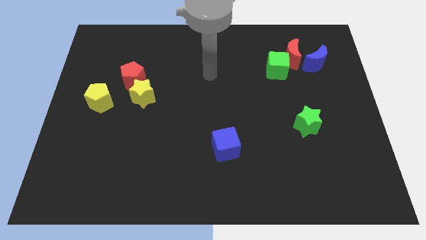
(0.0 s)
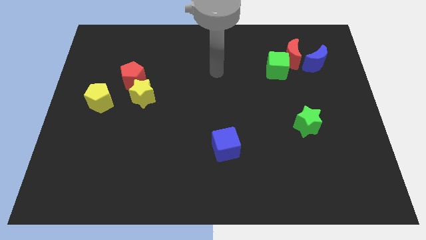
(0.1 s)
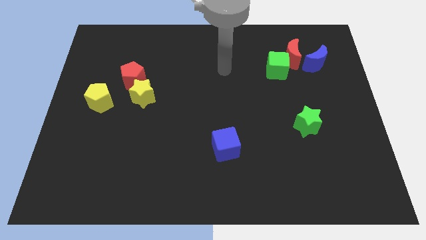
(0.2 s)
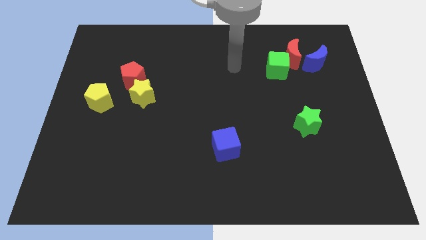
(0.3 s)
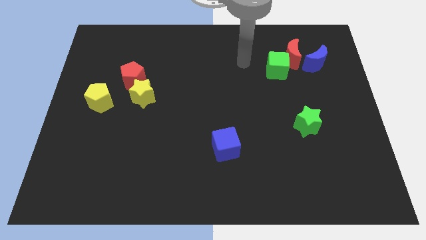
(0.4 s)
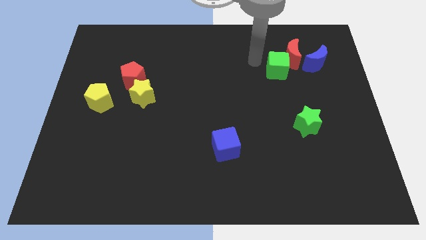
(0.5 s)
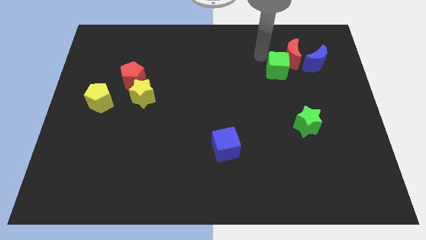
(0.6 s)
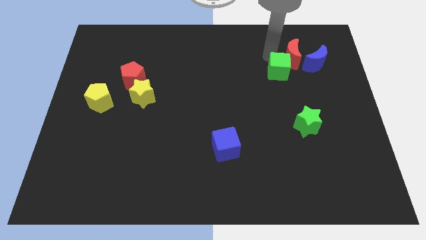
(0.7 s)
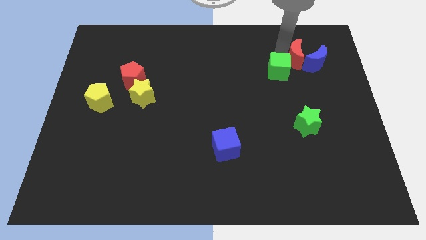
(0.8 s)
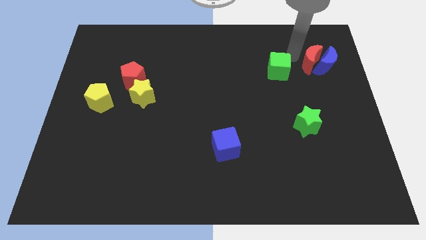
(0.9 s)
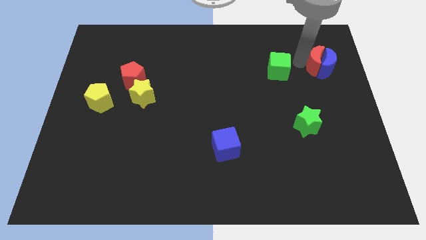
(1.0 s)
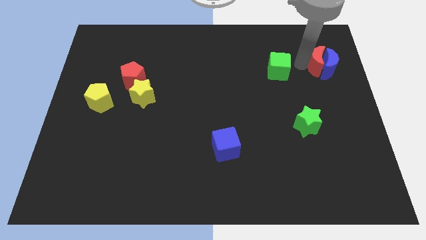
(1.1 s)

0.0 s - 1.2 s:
separate the green cube from the red moon

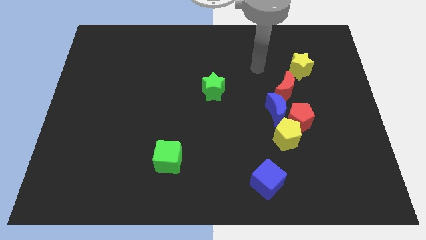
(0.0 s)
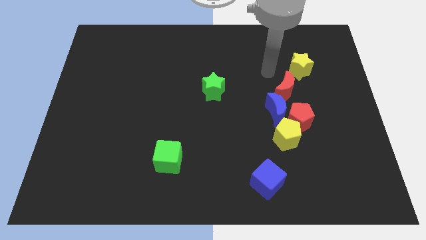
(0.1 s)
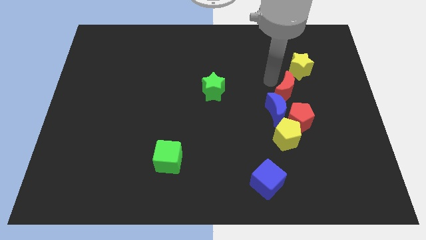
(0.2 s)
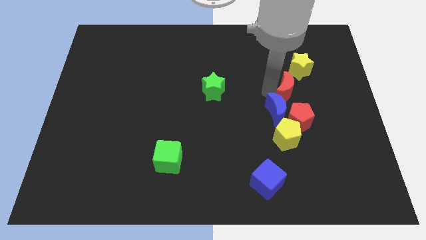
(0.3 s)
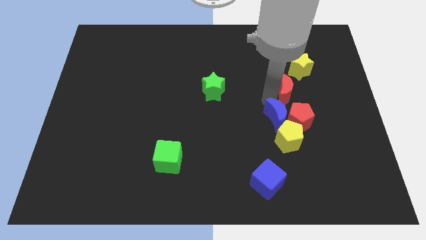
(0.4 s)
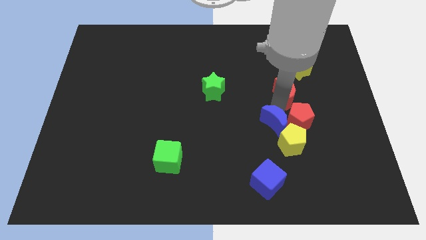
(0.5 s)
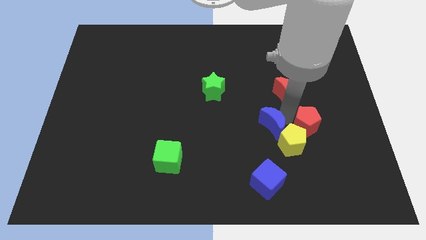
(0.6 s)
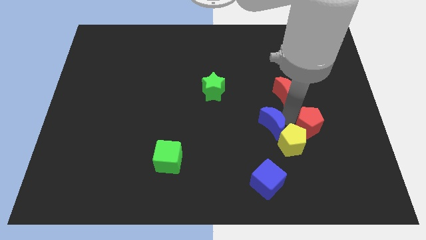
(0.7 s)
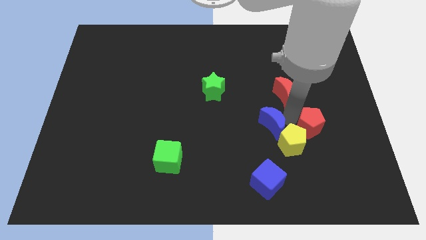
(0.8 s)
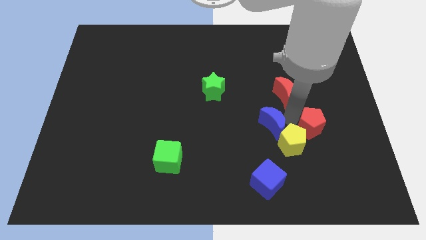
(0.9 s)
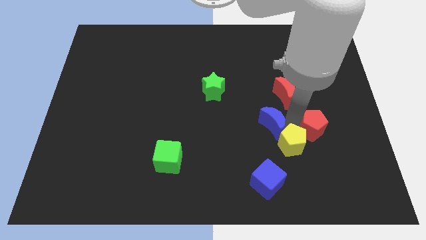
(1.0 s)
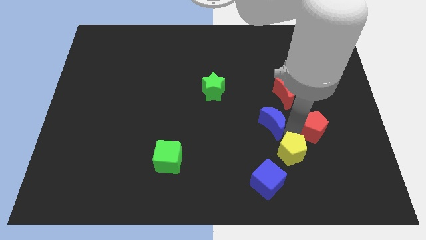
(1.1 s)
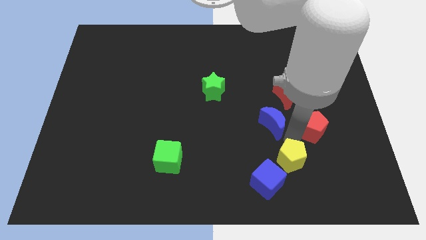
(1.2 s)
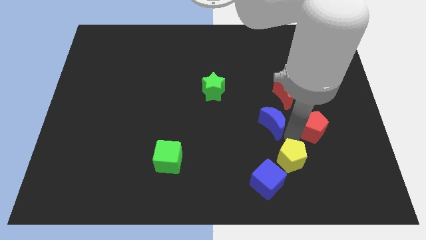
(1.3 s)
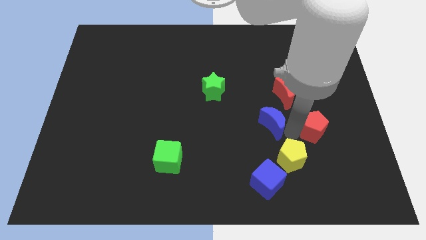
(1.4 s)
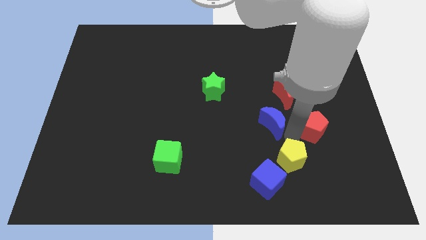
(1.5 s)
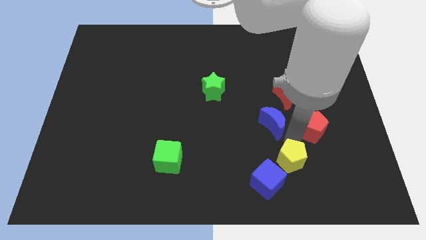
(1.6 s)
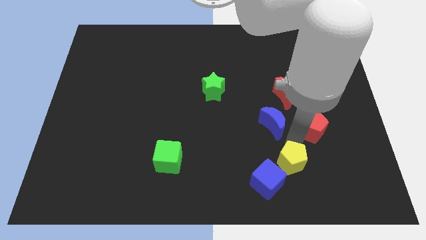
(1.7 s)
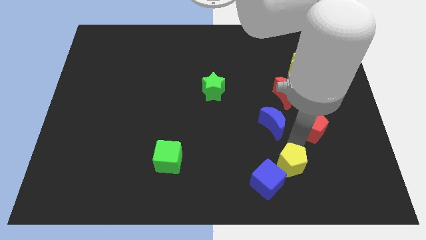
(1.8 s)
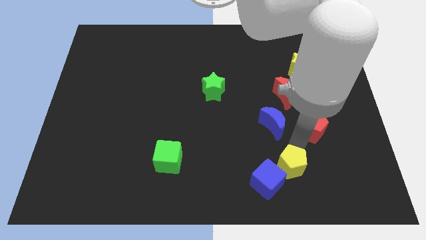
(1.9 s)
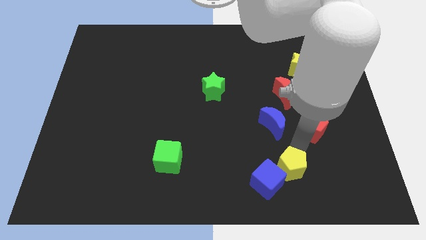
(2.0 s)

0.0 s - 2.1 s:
pull the yellow pentagon apart from the red pentagon and blue moon

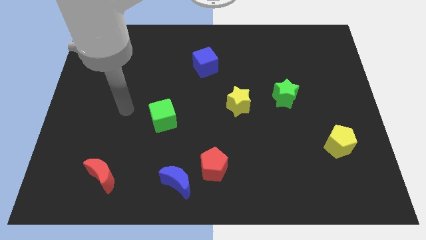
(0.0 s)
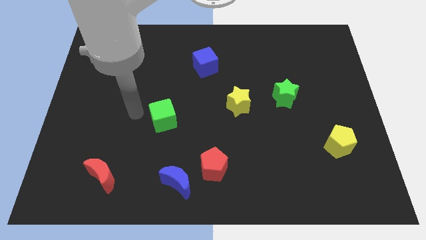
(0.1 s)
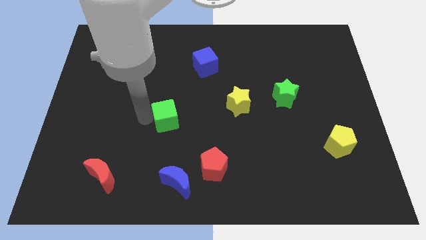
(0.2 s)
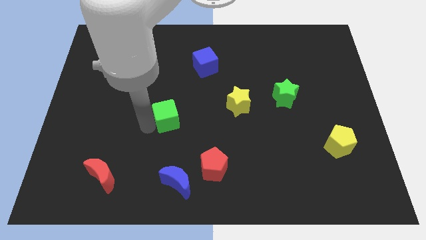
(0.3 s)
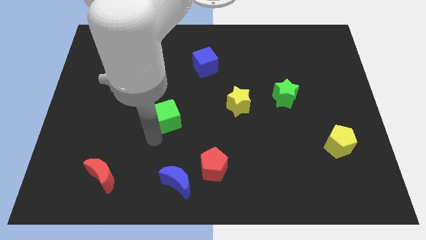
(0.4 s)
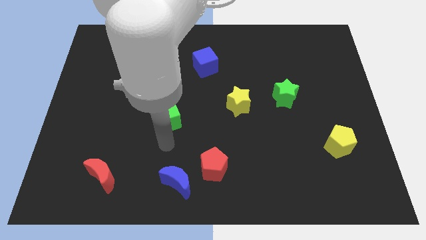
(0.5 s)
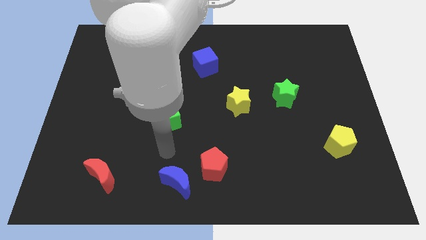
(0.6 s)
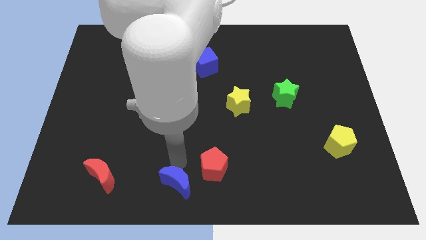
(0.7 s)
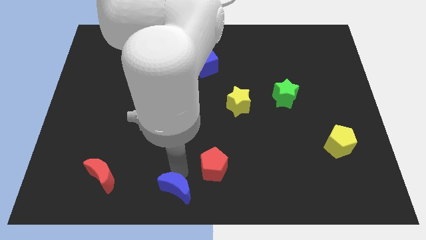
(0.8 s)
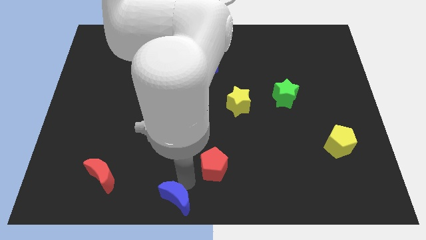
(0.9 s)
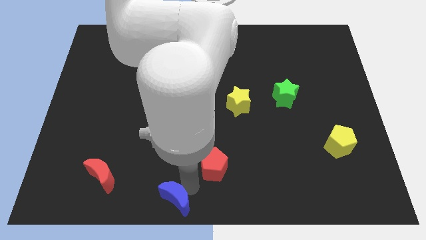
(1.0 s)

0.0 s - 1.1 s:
separate the red pentagon from the blue moon

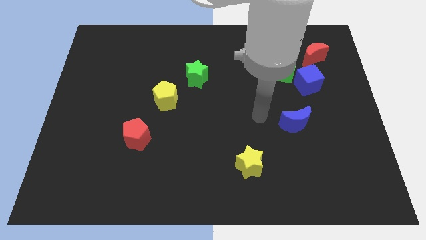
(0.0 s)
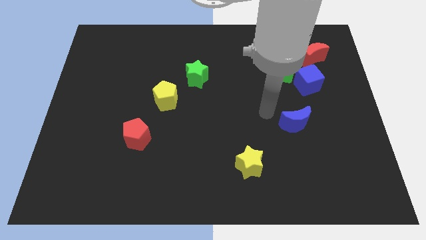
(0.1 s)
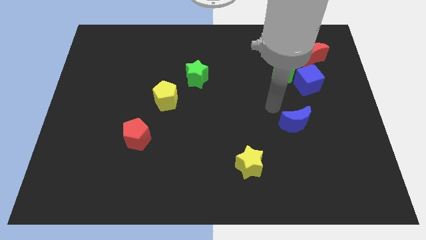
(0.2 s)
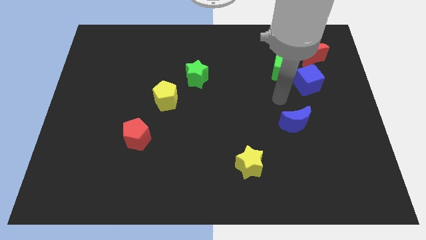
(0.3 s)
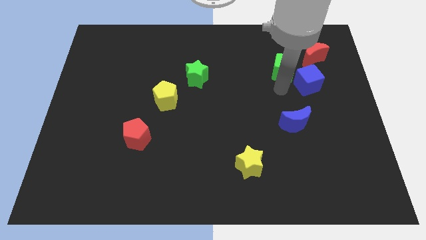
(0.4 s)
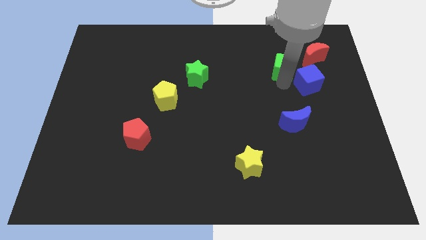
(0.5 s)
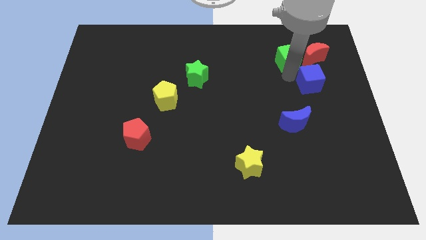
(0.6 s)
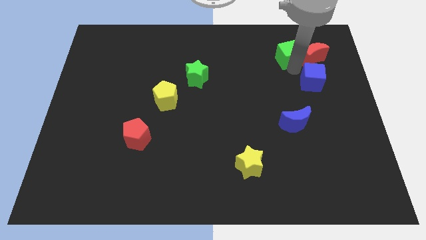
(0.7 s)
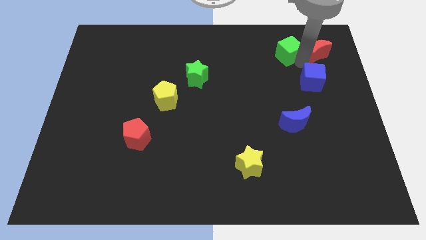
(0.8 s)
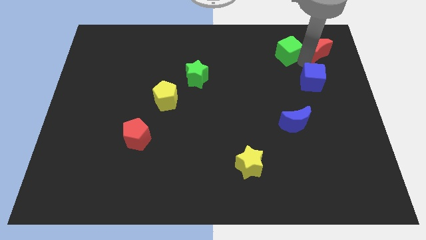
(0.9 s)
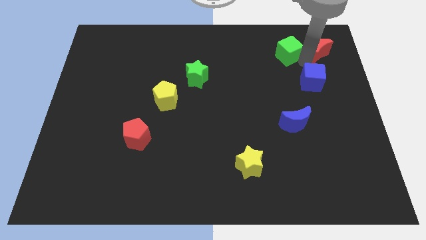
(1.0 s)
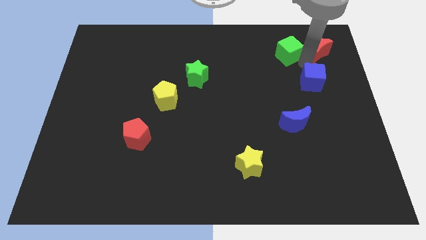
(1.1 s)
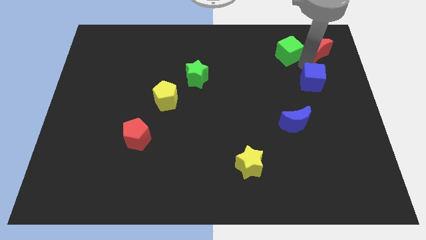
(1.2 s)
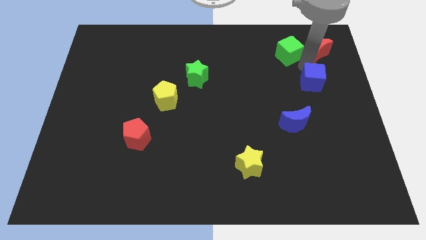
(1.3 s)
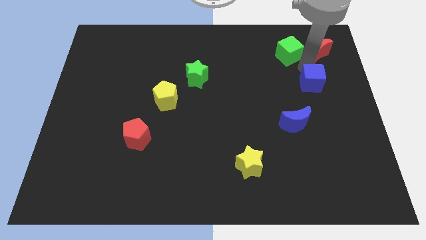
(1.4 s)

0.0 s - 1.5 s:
move the blue cube away from the green cube and red moon

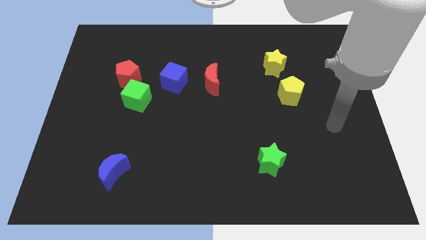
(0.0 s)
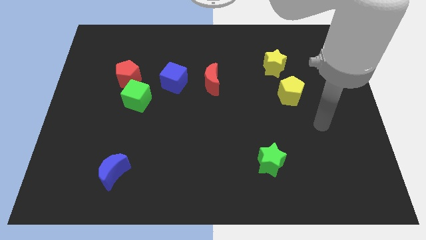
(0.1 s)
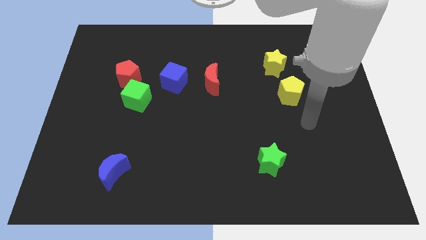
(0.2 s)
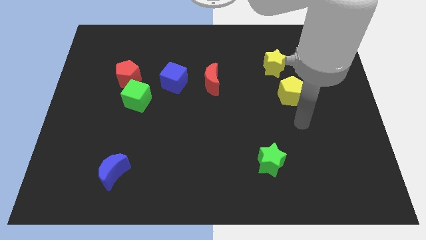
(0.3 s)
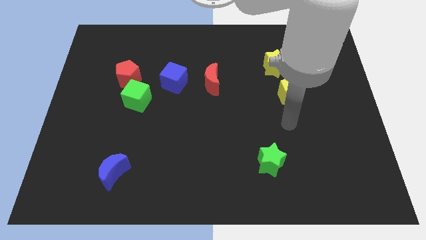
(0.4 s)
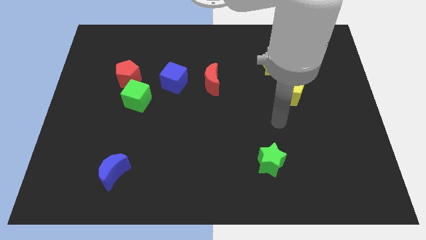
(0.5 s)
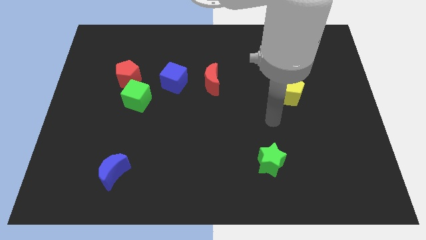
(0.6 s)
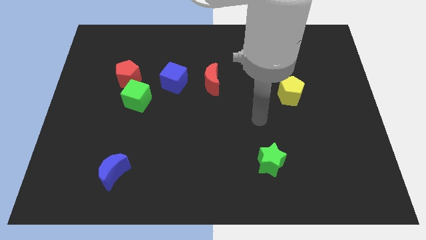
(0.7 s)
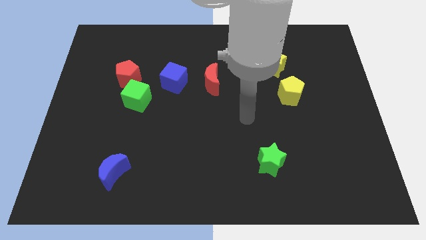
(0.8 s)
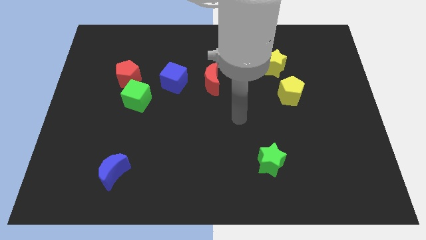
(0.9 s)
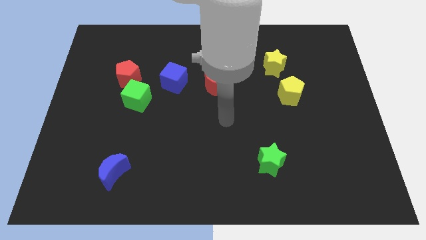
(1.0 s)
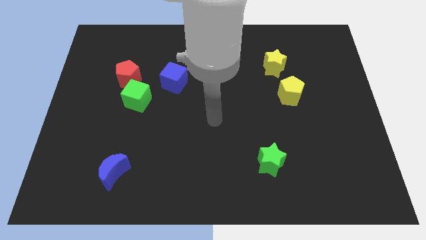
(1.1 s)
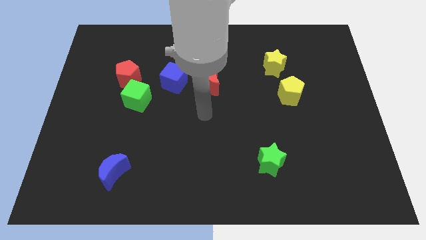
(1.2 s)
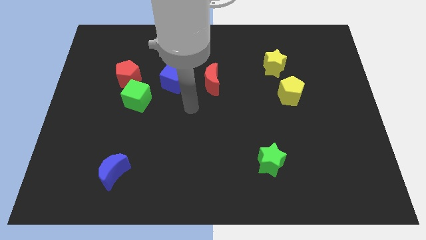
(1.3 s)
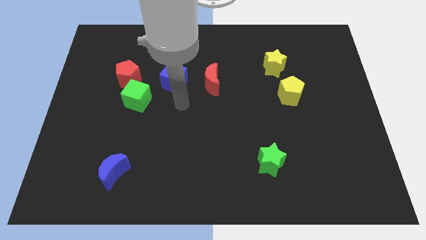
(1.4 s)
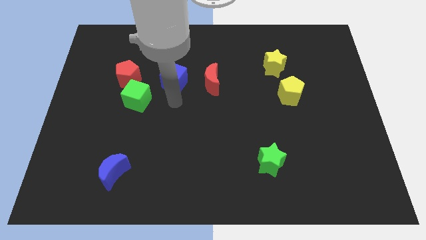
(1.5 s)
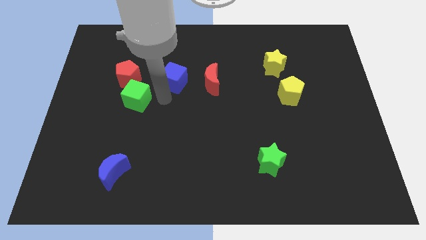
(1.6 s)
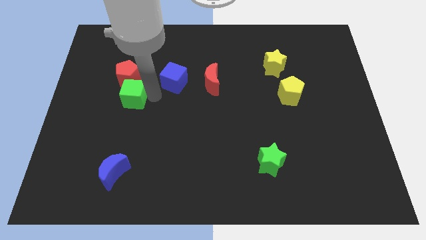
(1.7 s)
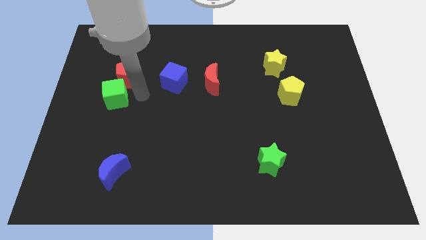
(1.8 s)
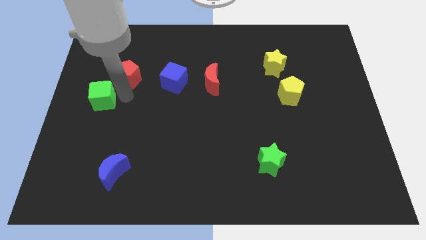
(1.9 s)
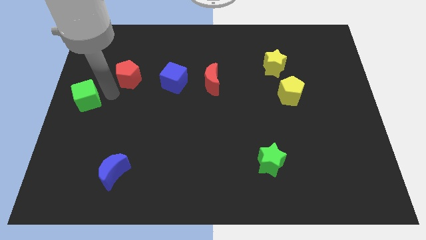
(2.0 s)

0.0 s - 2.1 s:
pull the red pentagon apart from the green cube

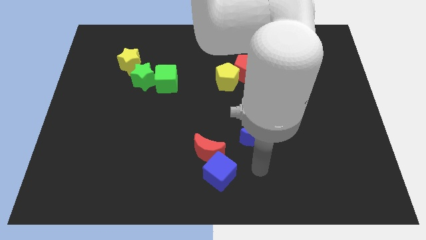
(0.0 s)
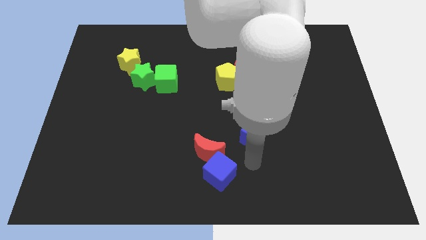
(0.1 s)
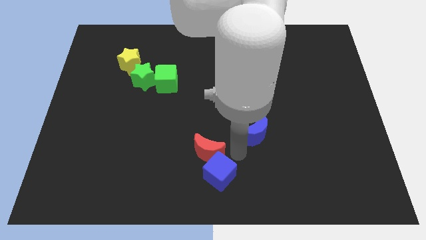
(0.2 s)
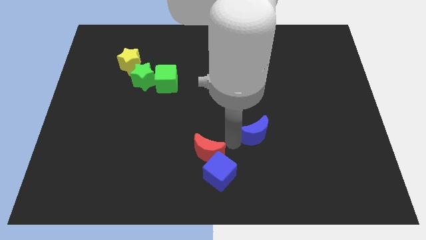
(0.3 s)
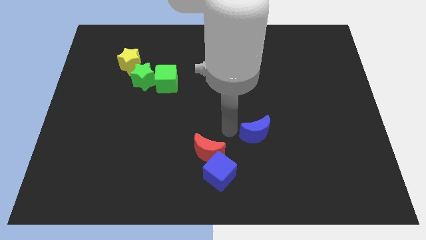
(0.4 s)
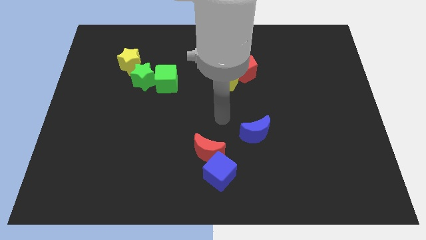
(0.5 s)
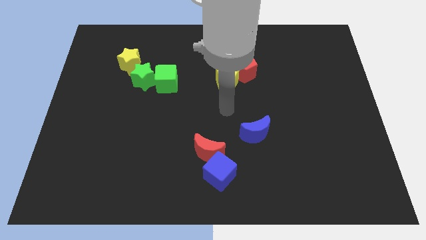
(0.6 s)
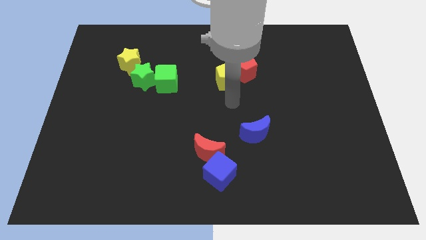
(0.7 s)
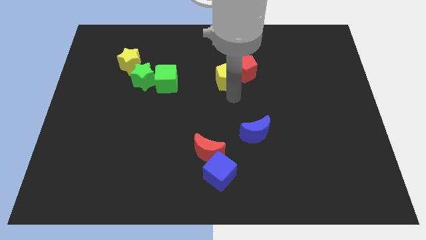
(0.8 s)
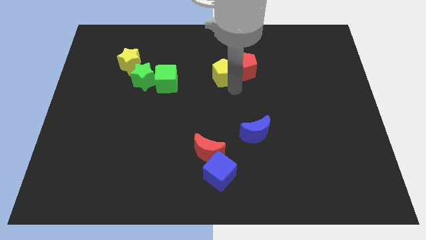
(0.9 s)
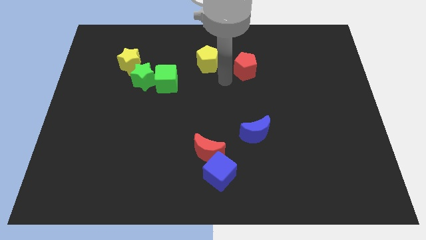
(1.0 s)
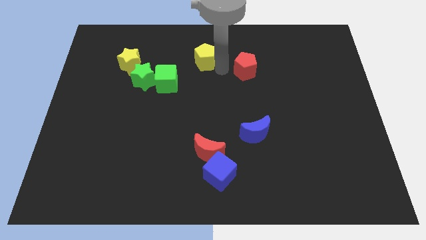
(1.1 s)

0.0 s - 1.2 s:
move the red pentagon away from the yellow pentagon
